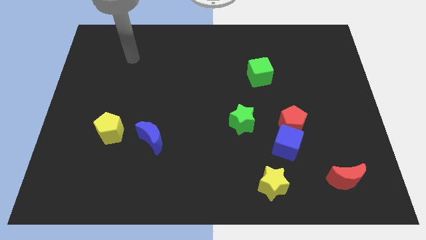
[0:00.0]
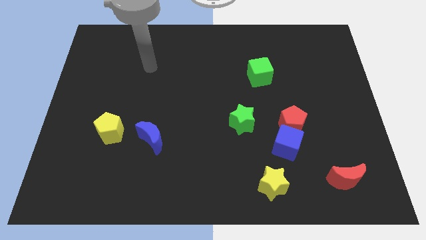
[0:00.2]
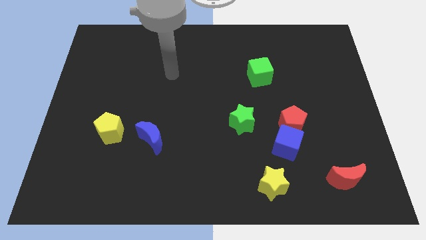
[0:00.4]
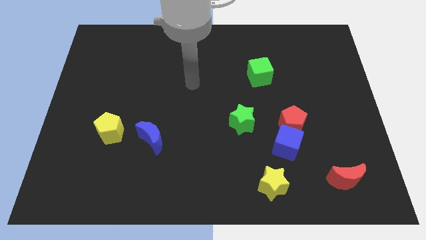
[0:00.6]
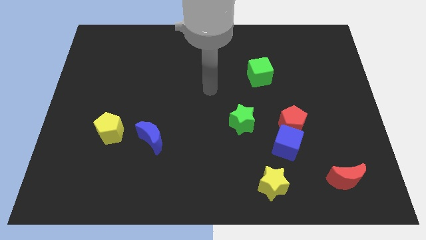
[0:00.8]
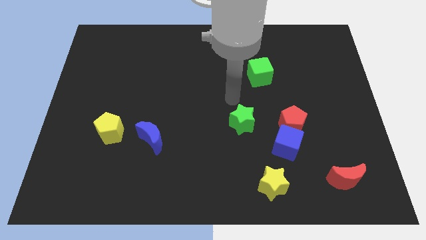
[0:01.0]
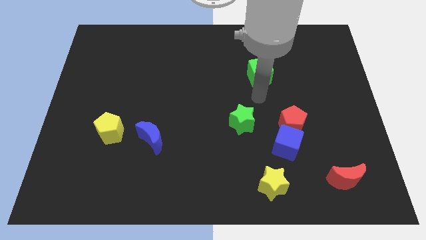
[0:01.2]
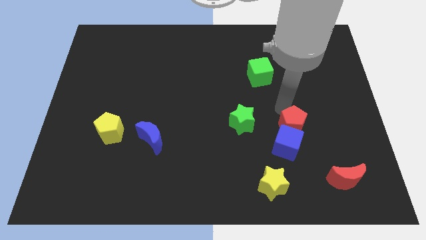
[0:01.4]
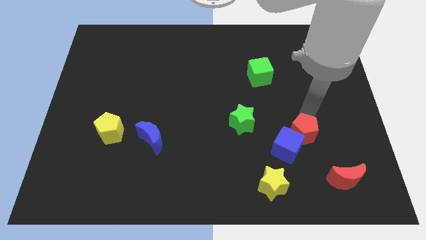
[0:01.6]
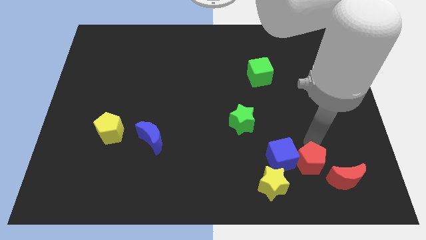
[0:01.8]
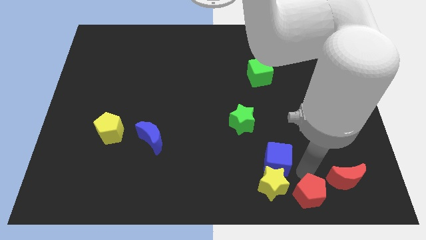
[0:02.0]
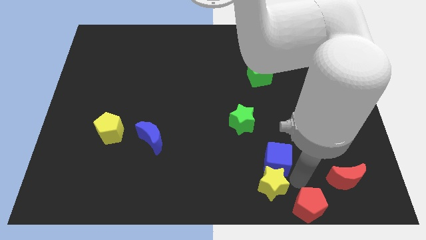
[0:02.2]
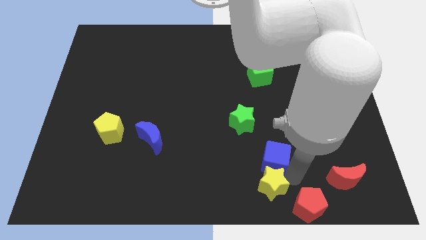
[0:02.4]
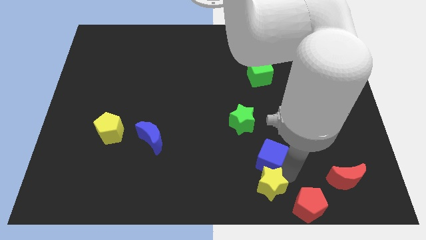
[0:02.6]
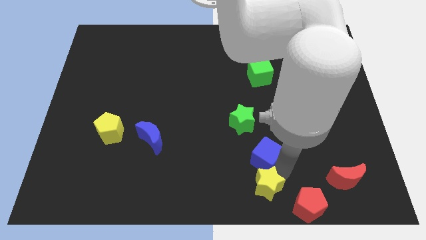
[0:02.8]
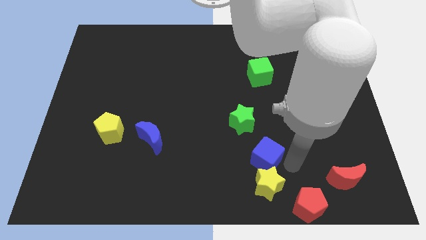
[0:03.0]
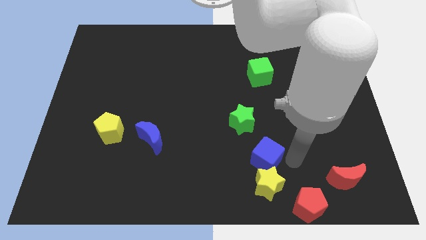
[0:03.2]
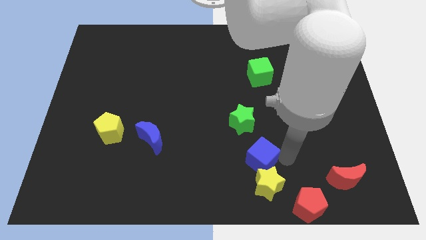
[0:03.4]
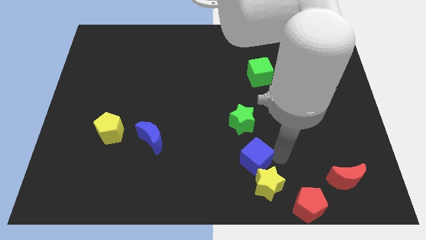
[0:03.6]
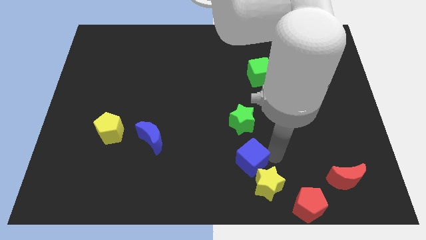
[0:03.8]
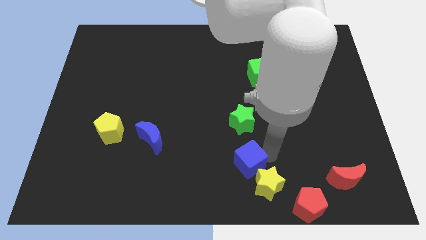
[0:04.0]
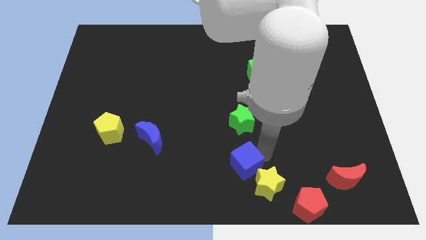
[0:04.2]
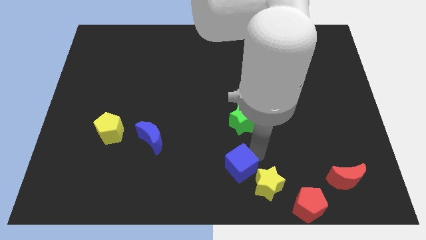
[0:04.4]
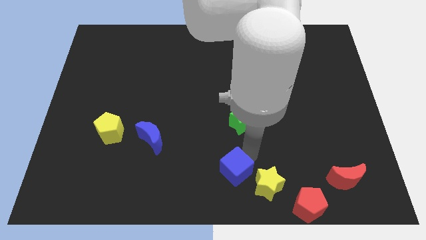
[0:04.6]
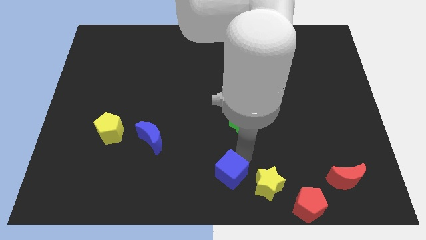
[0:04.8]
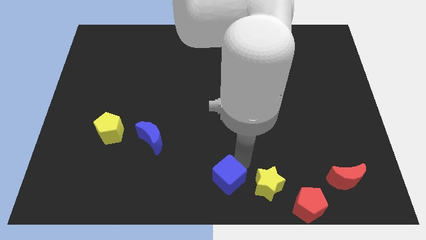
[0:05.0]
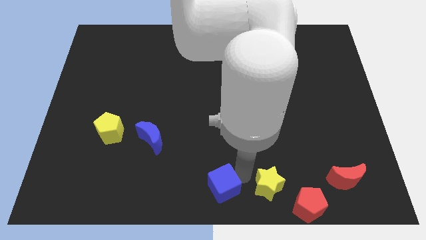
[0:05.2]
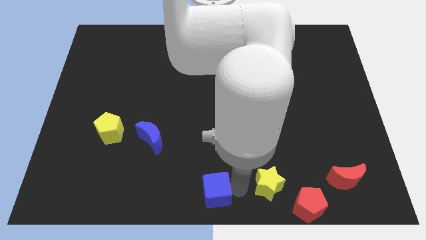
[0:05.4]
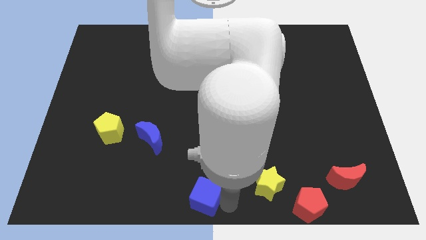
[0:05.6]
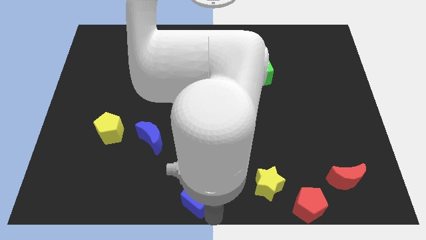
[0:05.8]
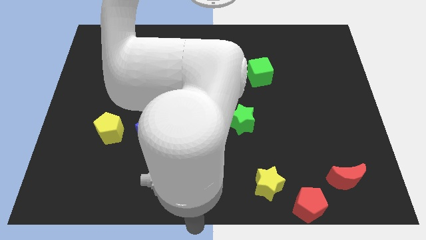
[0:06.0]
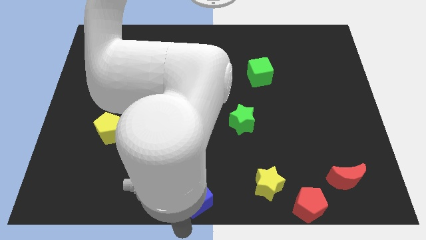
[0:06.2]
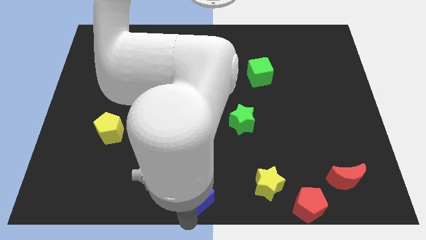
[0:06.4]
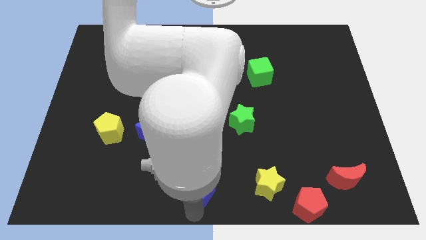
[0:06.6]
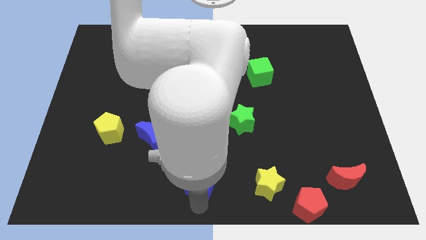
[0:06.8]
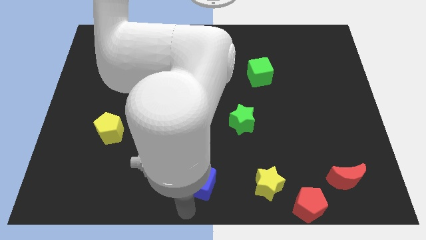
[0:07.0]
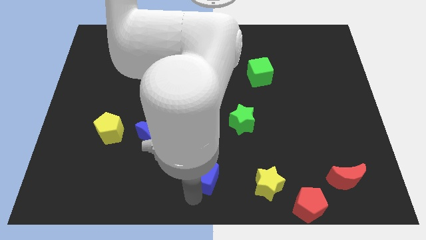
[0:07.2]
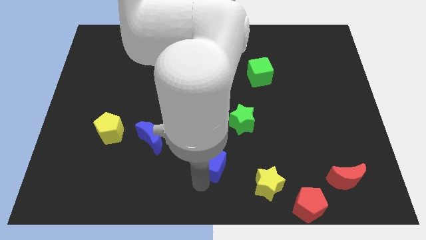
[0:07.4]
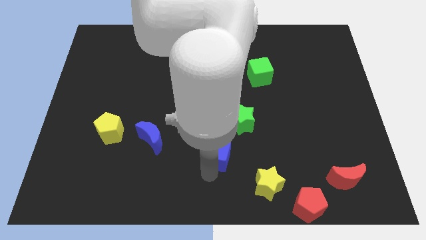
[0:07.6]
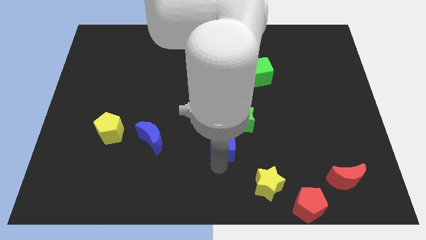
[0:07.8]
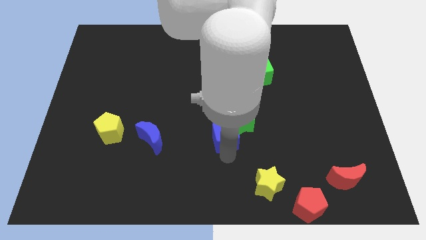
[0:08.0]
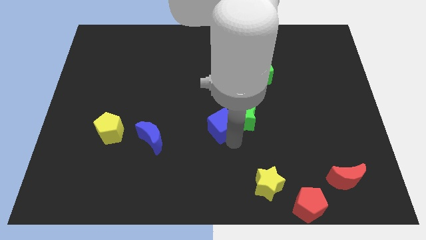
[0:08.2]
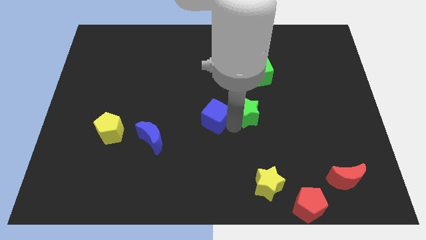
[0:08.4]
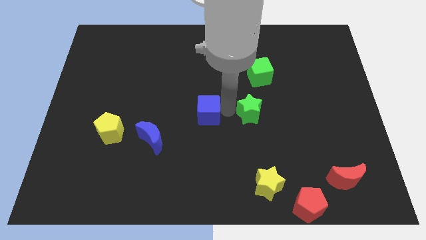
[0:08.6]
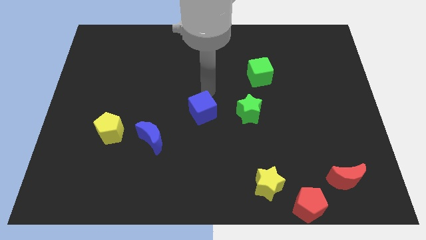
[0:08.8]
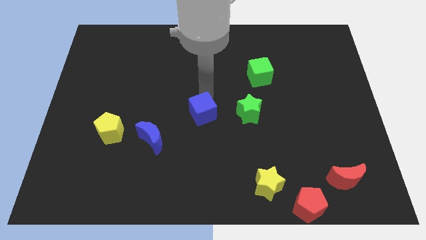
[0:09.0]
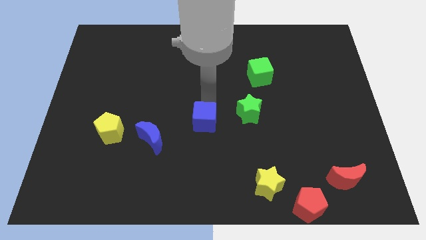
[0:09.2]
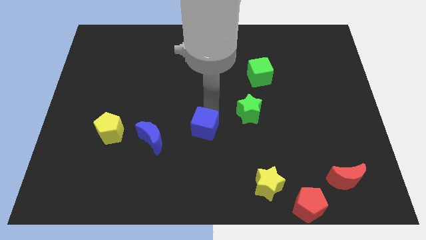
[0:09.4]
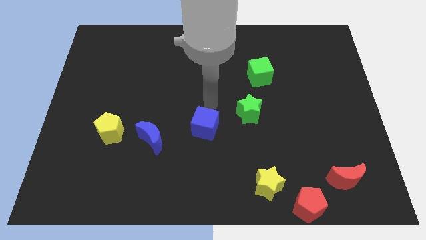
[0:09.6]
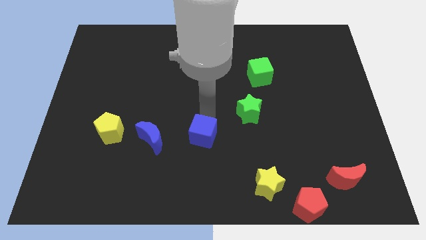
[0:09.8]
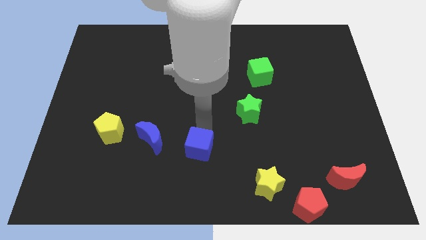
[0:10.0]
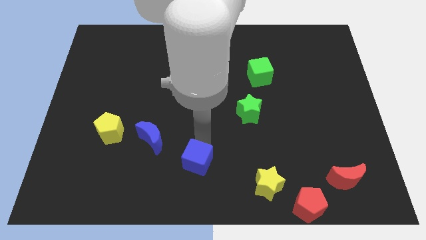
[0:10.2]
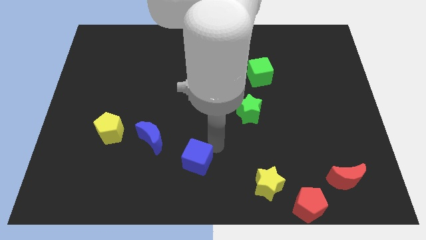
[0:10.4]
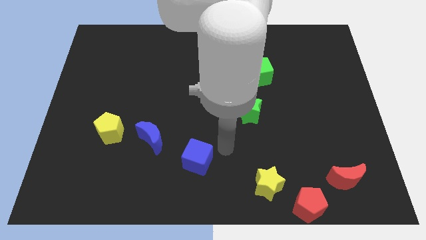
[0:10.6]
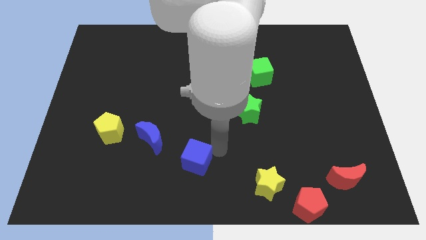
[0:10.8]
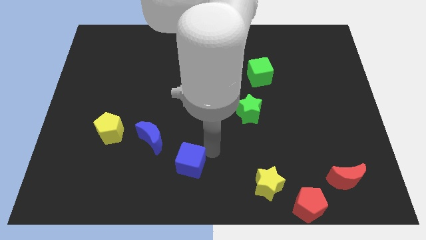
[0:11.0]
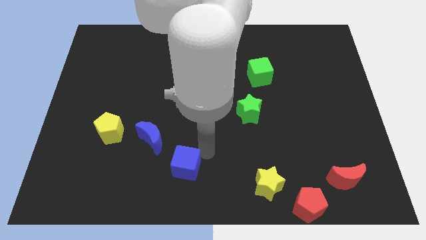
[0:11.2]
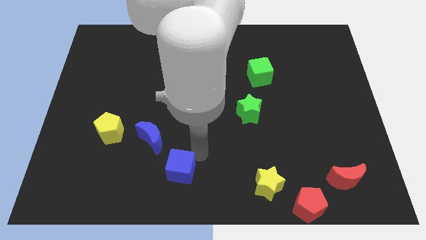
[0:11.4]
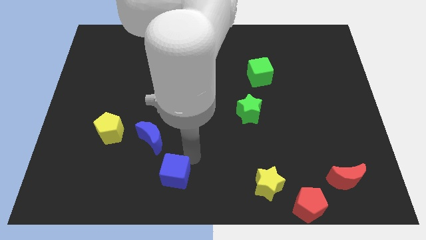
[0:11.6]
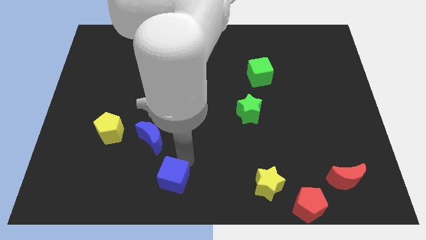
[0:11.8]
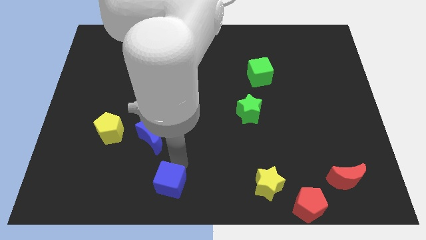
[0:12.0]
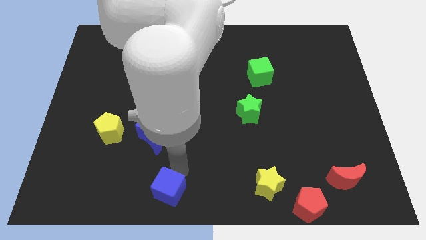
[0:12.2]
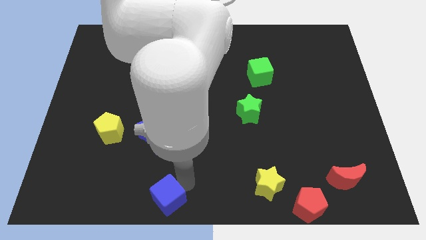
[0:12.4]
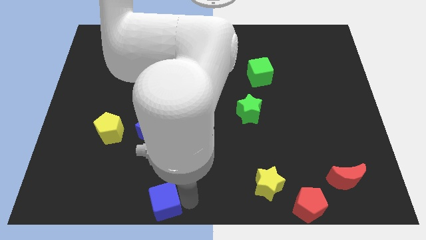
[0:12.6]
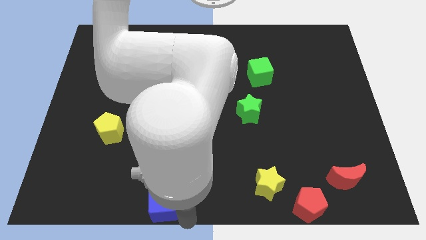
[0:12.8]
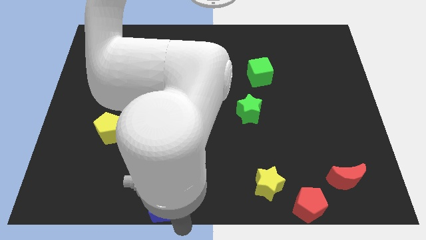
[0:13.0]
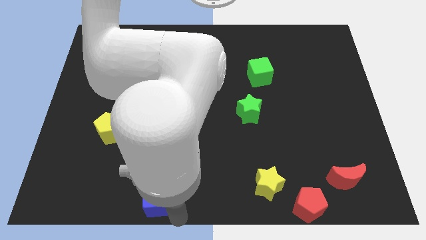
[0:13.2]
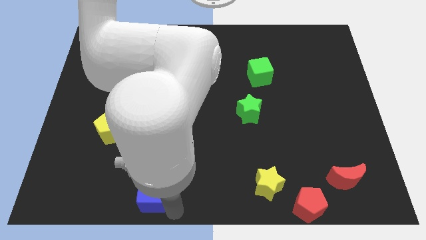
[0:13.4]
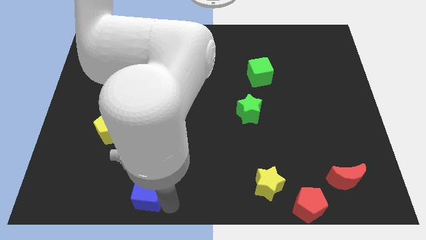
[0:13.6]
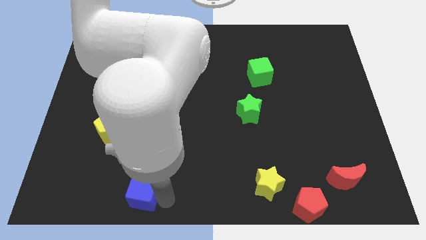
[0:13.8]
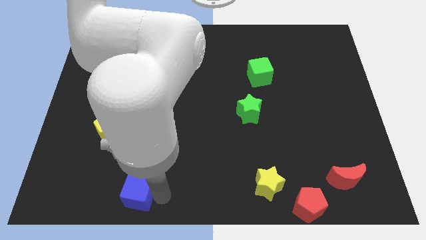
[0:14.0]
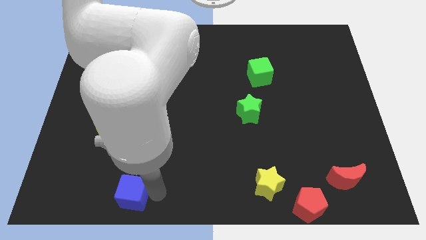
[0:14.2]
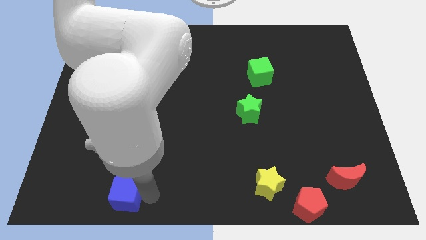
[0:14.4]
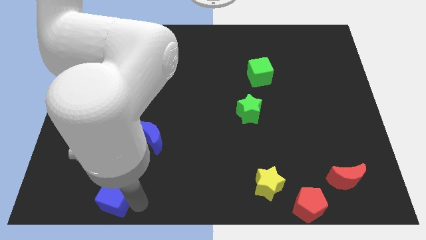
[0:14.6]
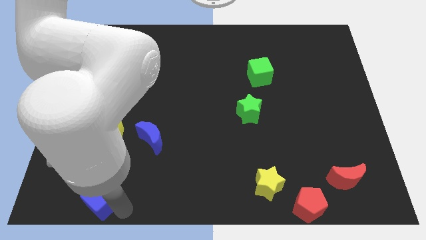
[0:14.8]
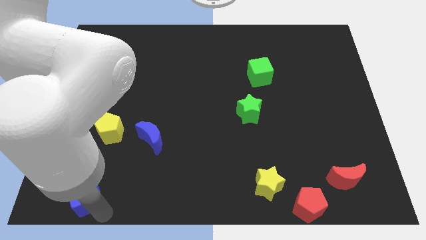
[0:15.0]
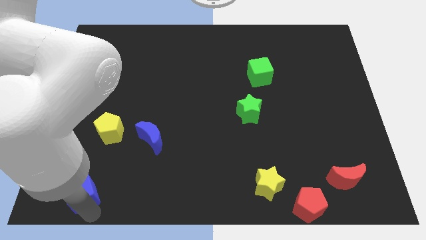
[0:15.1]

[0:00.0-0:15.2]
put the blue cube to the bottom left of the board
